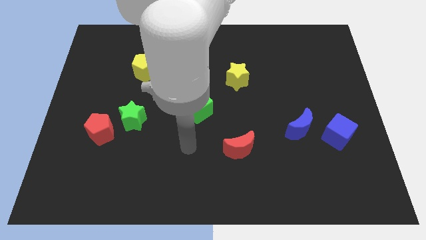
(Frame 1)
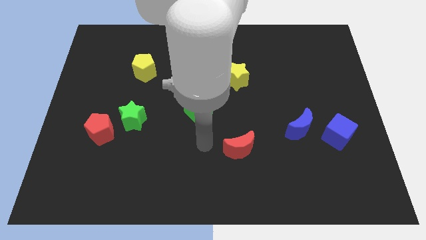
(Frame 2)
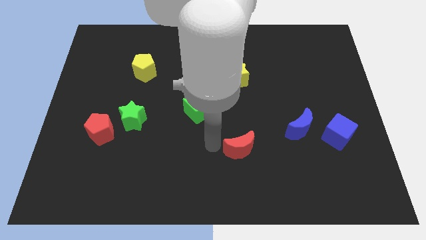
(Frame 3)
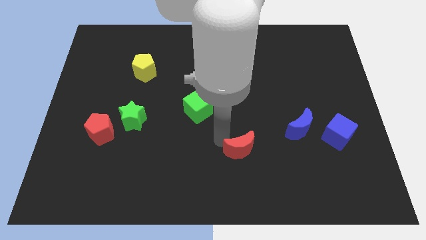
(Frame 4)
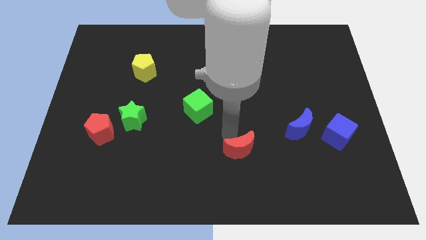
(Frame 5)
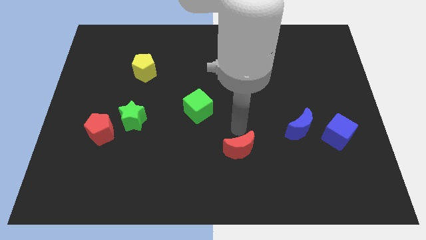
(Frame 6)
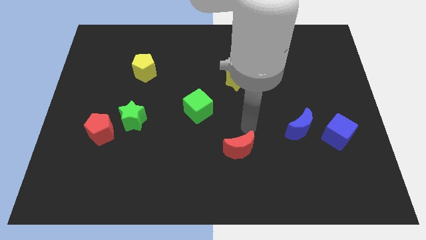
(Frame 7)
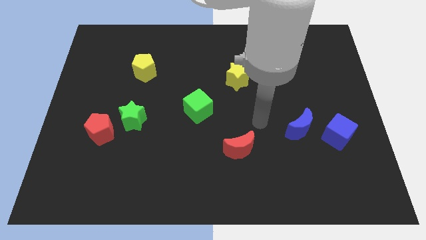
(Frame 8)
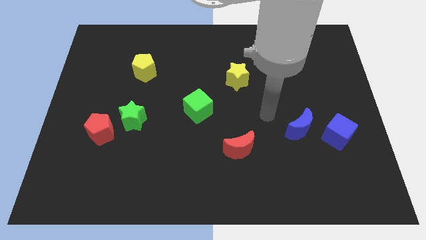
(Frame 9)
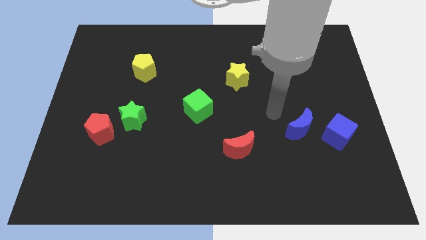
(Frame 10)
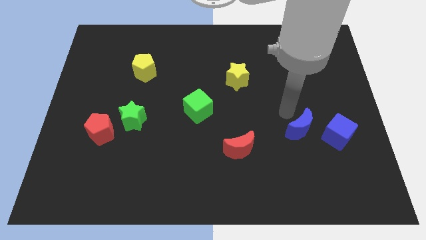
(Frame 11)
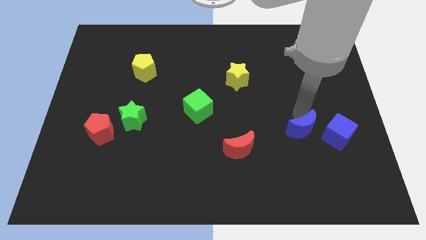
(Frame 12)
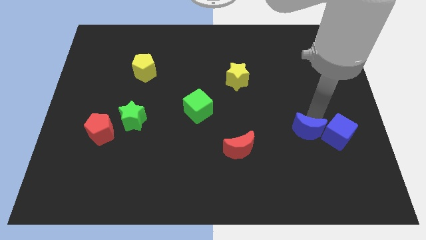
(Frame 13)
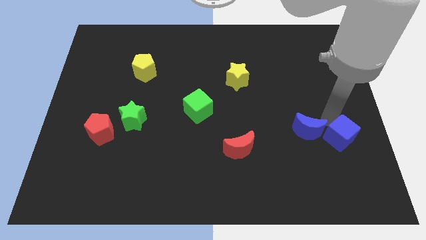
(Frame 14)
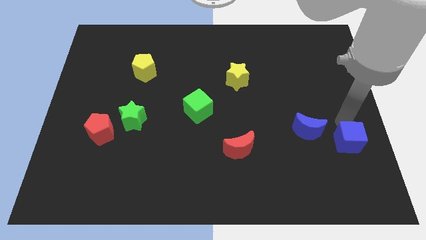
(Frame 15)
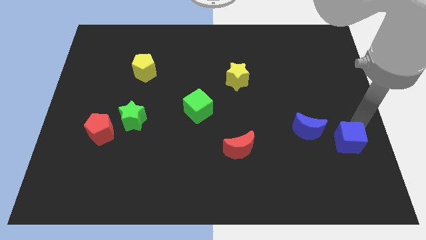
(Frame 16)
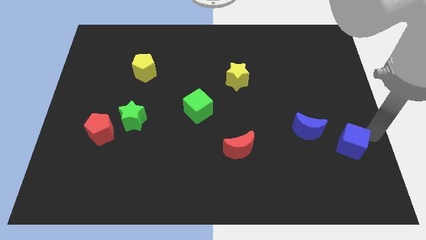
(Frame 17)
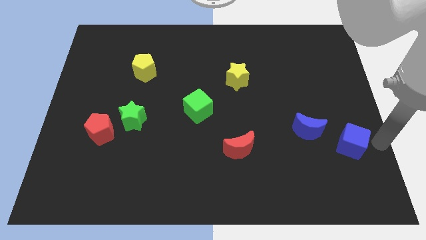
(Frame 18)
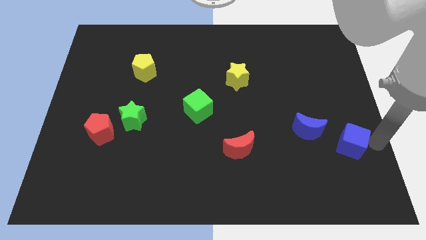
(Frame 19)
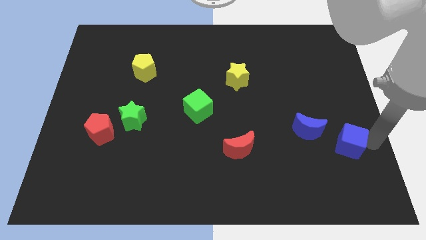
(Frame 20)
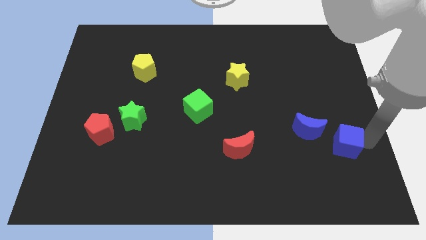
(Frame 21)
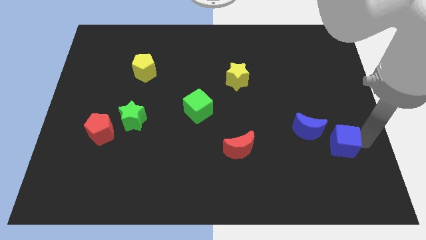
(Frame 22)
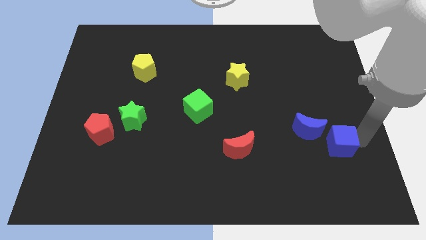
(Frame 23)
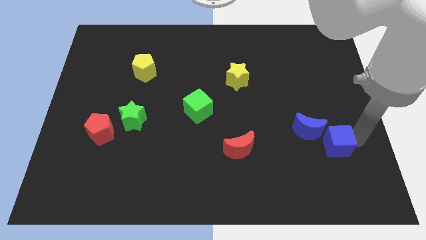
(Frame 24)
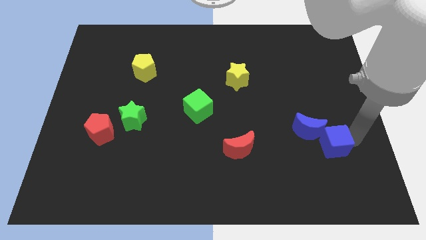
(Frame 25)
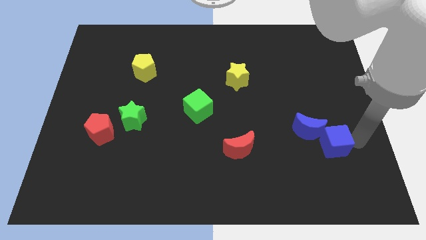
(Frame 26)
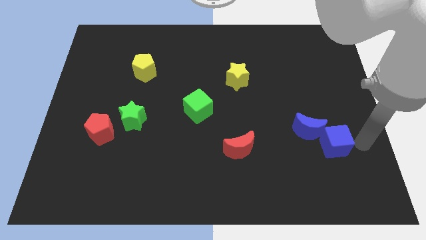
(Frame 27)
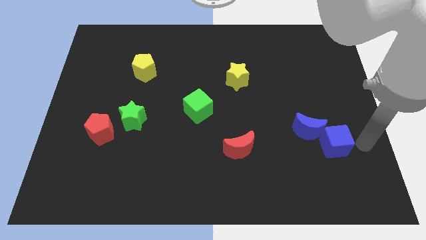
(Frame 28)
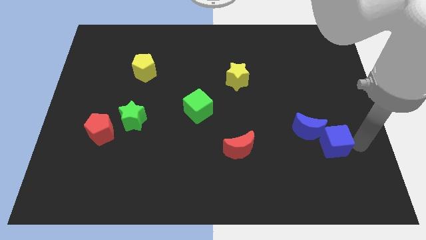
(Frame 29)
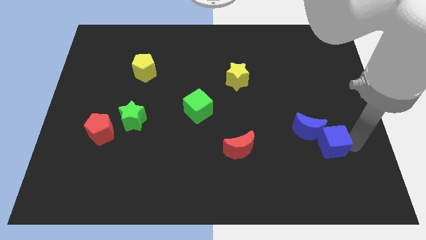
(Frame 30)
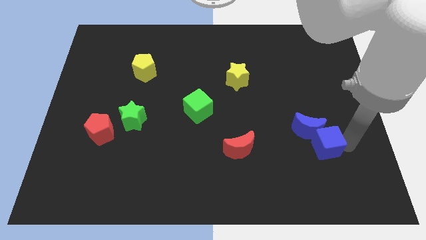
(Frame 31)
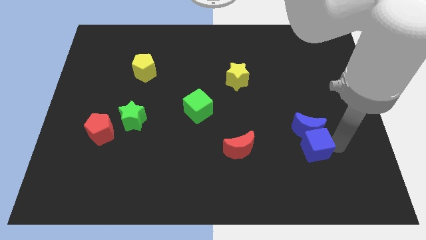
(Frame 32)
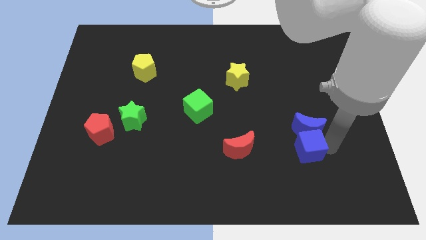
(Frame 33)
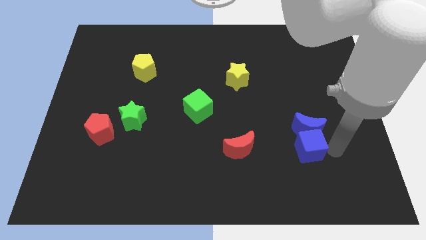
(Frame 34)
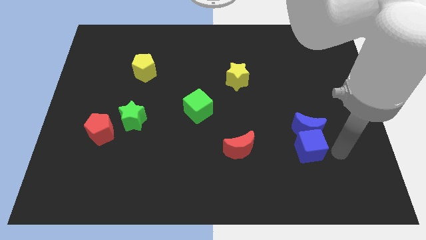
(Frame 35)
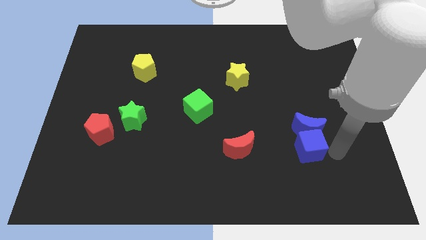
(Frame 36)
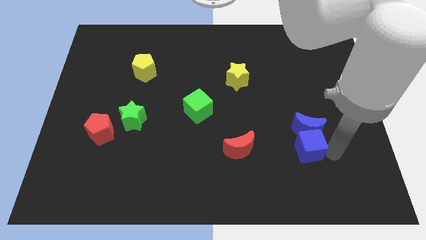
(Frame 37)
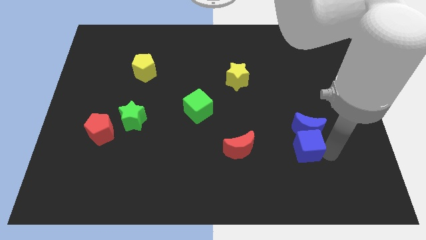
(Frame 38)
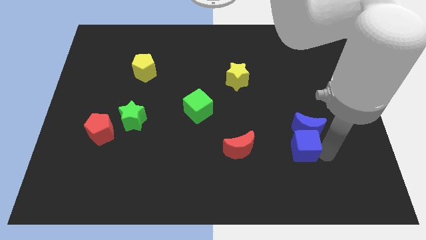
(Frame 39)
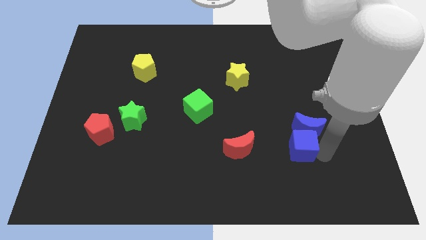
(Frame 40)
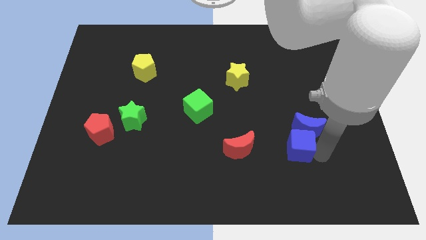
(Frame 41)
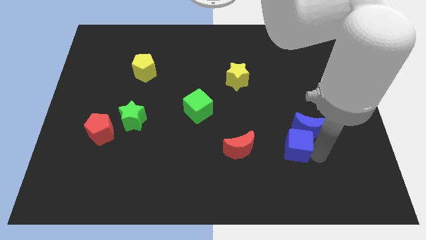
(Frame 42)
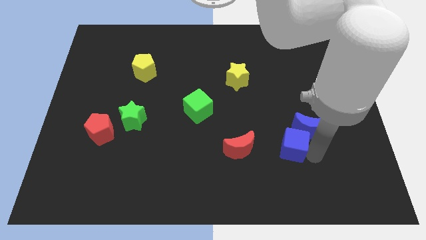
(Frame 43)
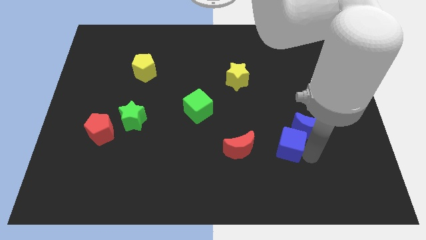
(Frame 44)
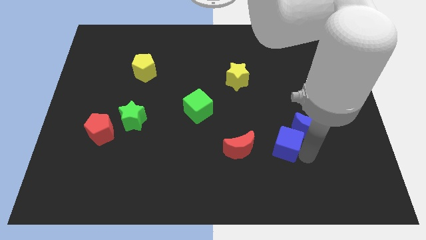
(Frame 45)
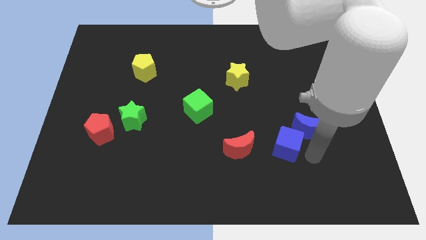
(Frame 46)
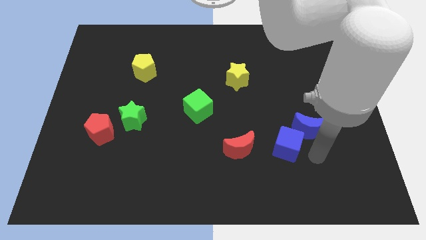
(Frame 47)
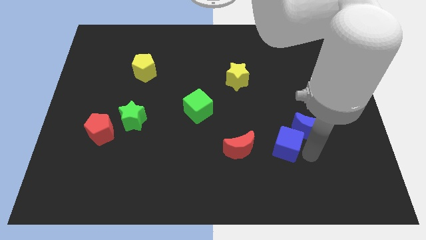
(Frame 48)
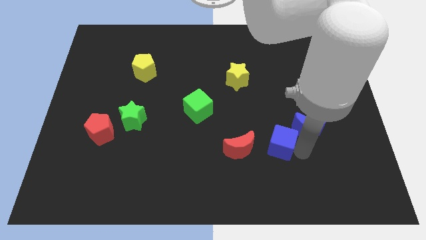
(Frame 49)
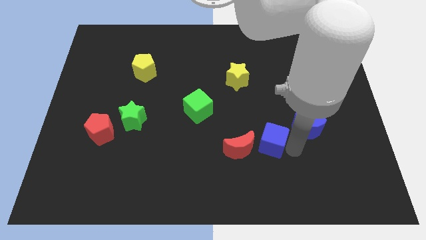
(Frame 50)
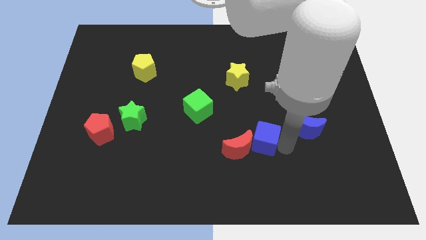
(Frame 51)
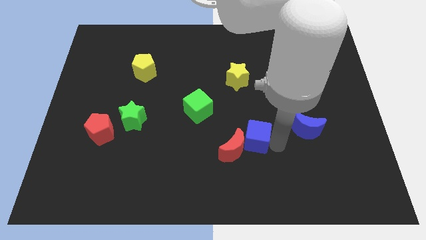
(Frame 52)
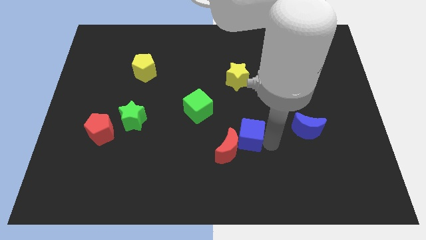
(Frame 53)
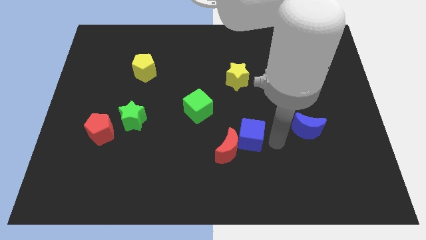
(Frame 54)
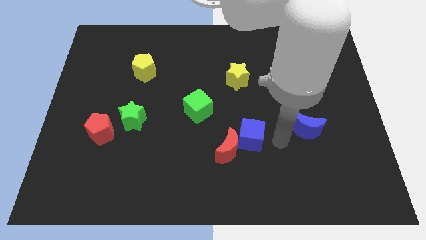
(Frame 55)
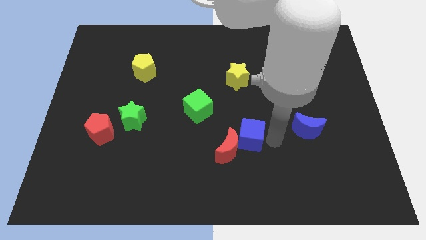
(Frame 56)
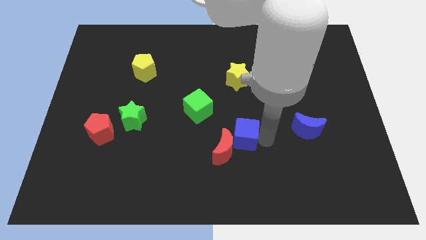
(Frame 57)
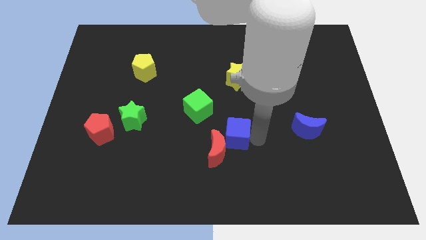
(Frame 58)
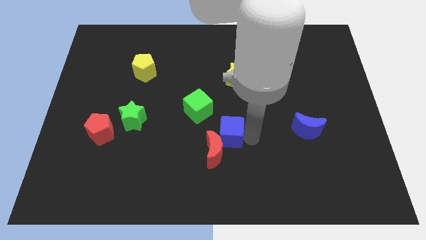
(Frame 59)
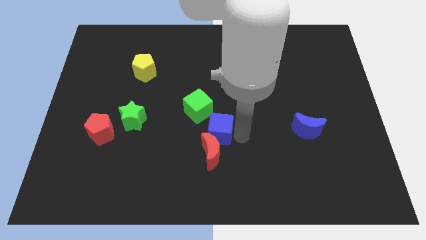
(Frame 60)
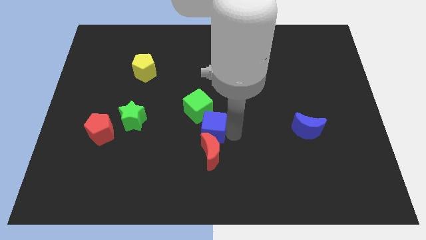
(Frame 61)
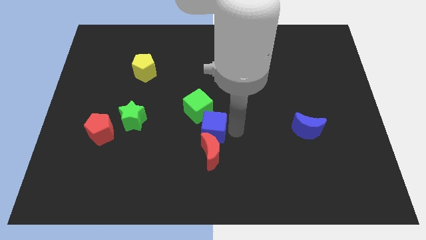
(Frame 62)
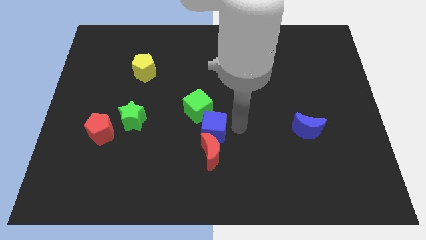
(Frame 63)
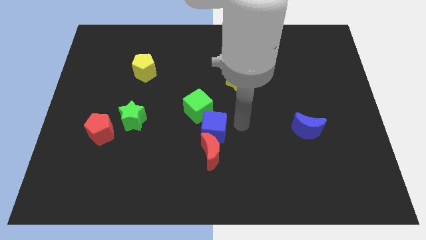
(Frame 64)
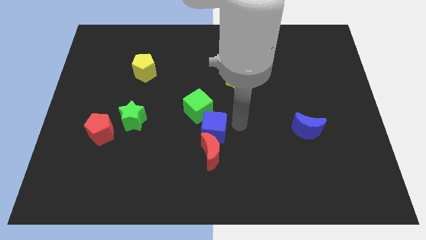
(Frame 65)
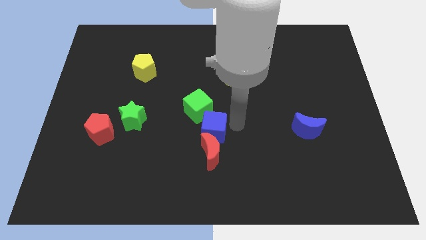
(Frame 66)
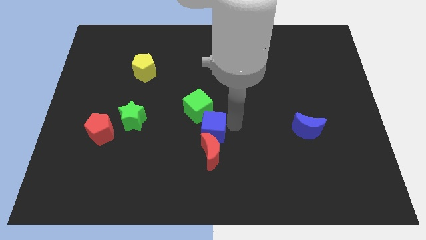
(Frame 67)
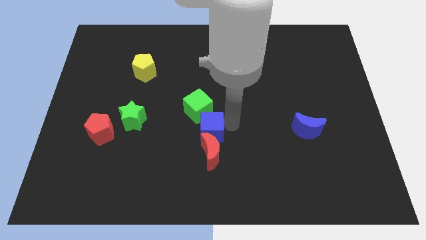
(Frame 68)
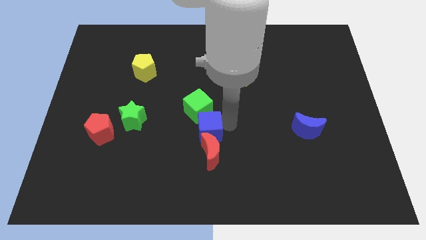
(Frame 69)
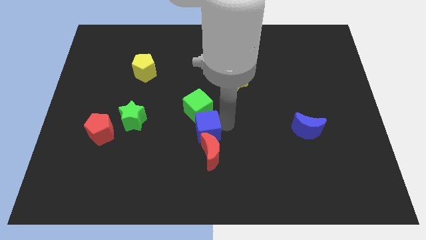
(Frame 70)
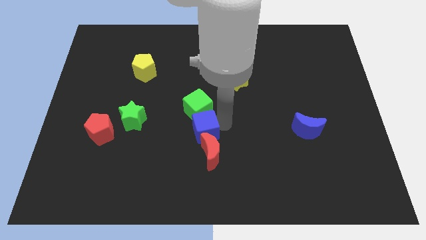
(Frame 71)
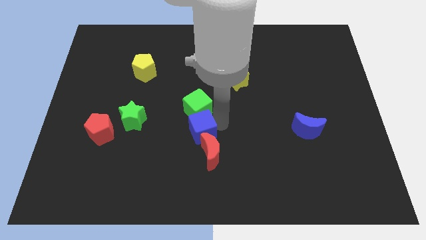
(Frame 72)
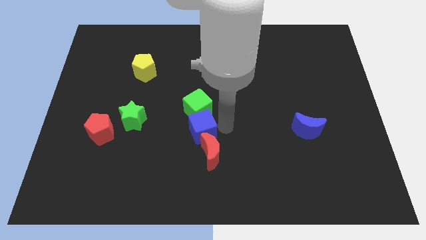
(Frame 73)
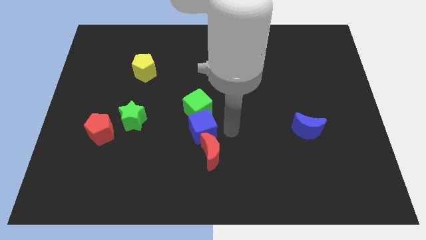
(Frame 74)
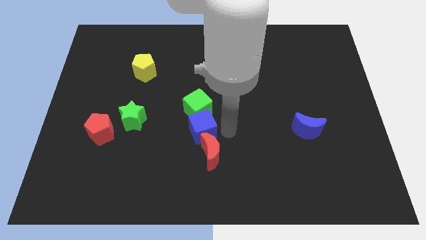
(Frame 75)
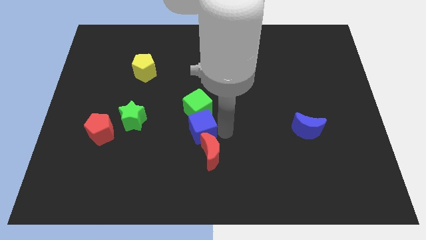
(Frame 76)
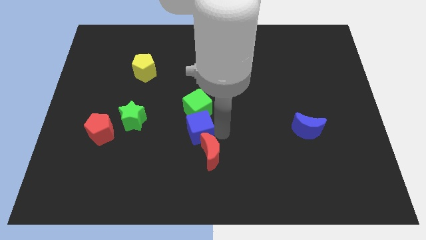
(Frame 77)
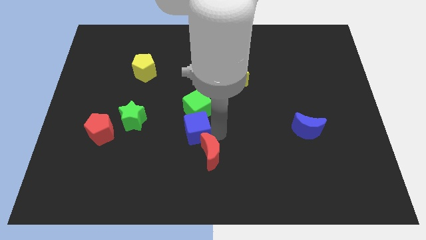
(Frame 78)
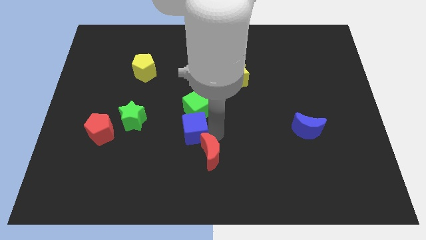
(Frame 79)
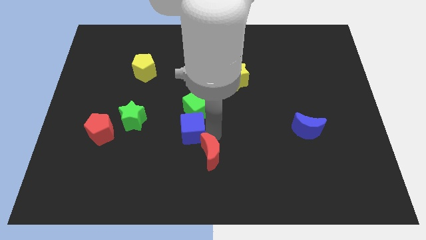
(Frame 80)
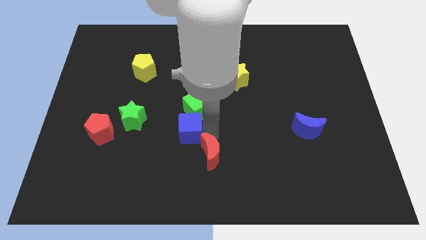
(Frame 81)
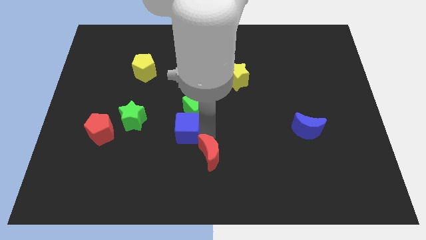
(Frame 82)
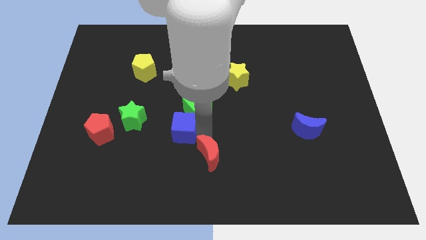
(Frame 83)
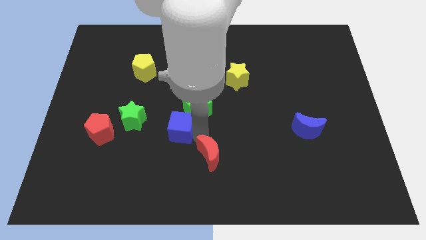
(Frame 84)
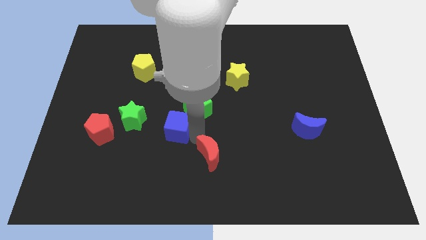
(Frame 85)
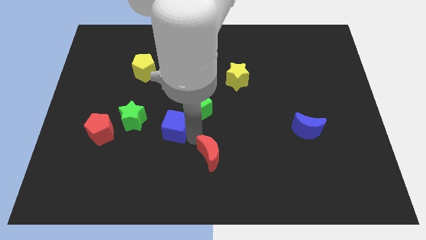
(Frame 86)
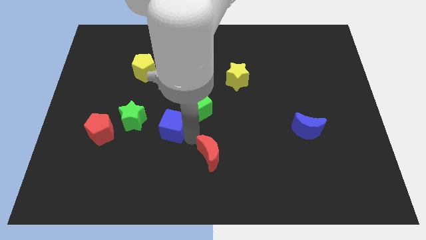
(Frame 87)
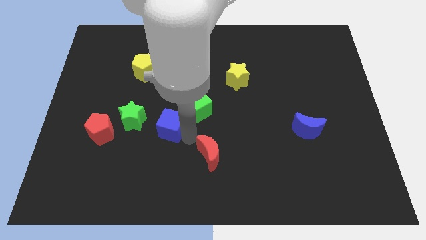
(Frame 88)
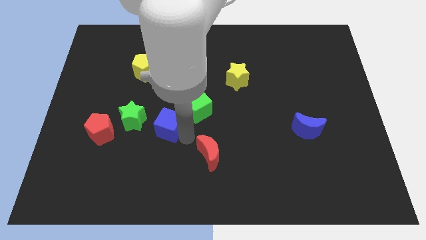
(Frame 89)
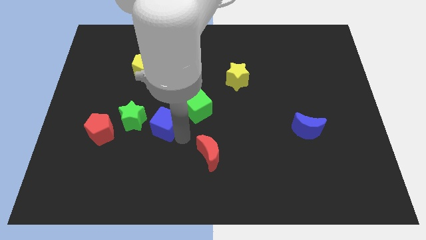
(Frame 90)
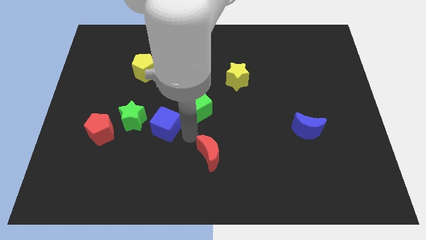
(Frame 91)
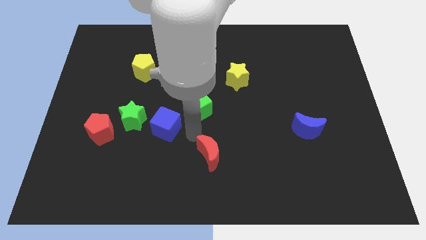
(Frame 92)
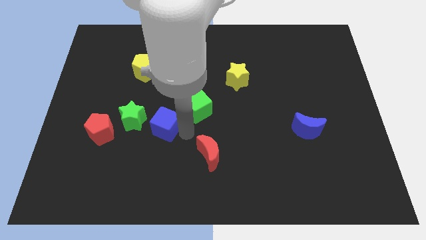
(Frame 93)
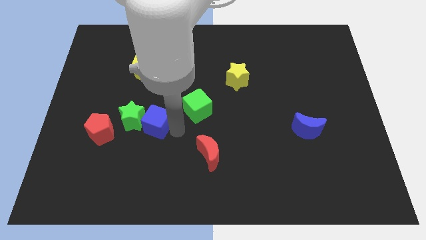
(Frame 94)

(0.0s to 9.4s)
push the blue cube to the green star
